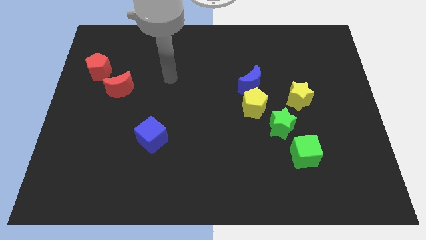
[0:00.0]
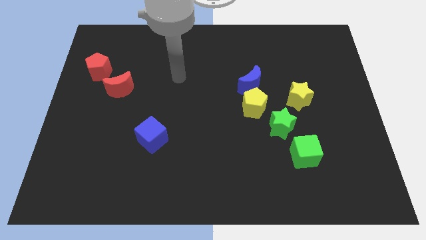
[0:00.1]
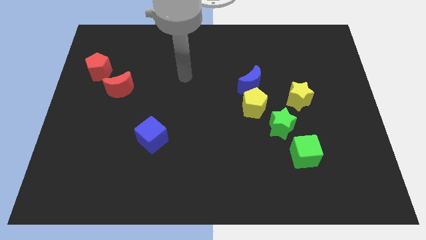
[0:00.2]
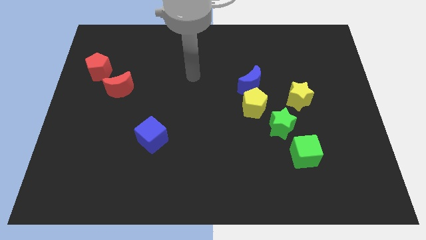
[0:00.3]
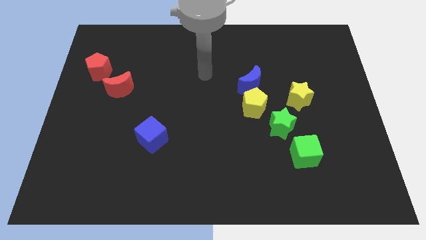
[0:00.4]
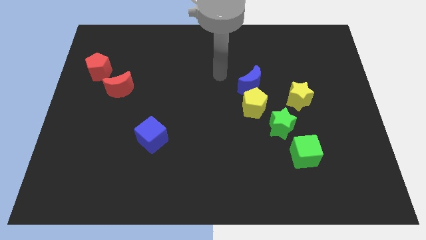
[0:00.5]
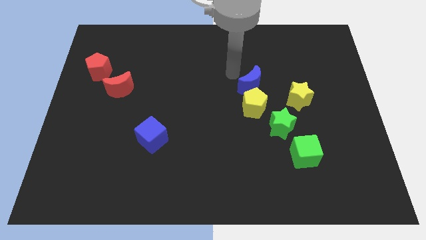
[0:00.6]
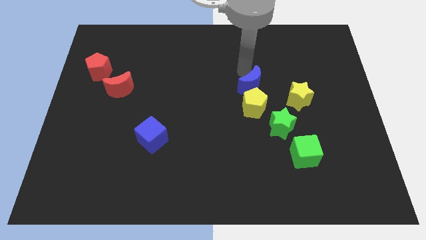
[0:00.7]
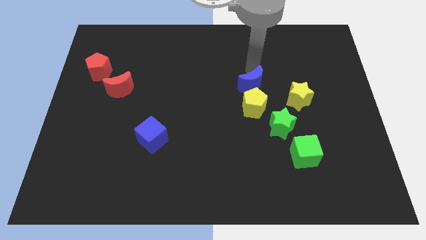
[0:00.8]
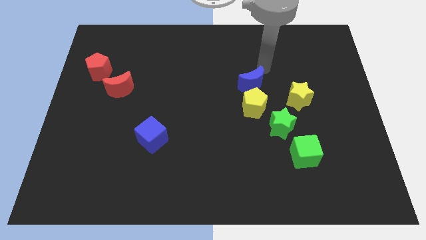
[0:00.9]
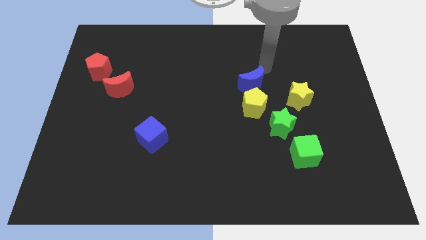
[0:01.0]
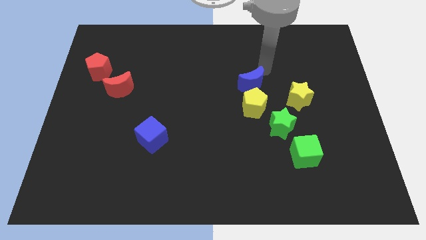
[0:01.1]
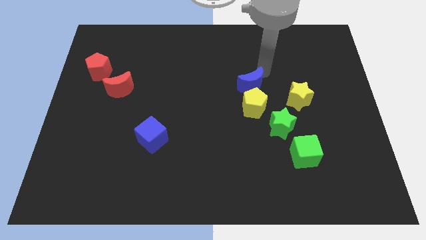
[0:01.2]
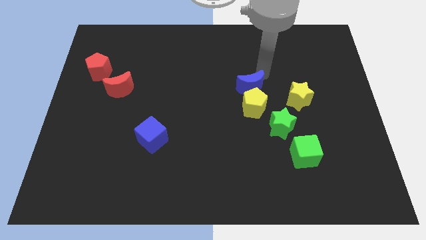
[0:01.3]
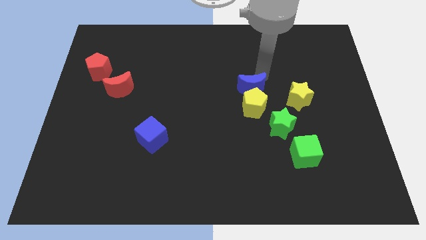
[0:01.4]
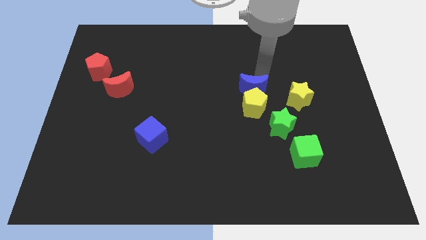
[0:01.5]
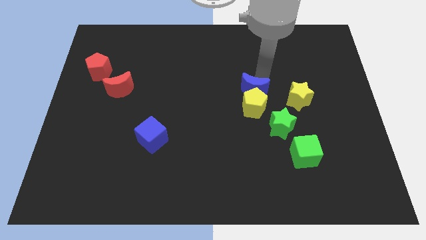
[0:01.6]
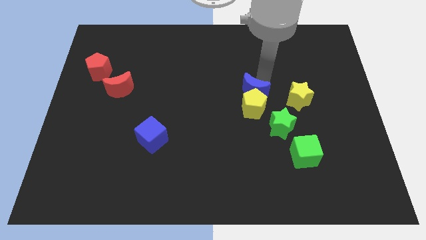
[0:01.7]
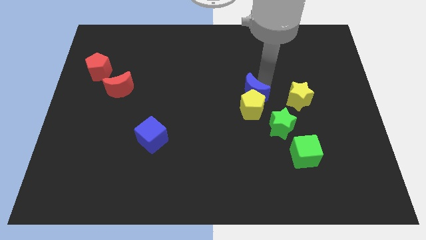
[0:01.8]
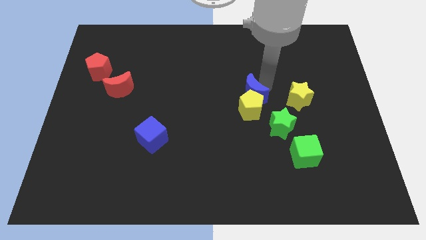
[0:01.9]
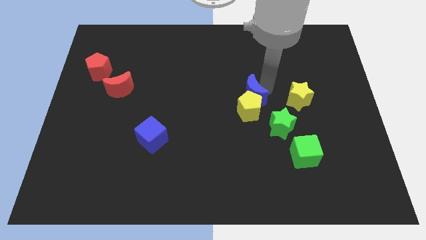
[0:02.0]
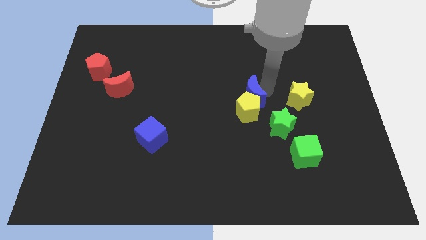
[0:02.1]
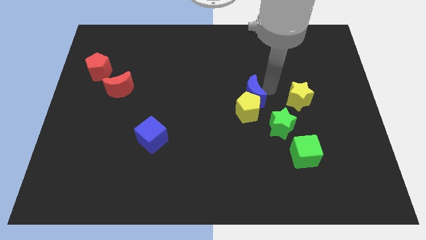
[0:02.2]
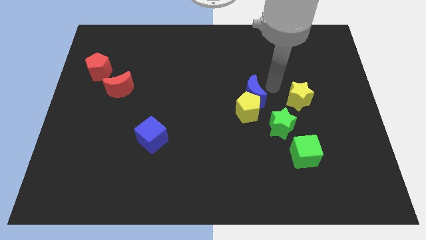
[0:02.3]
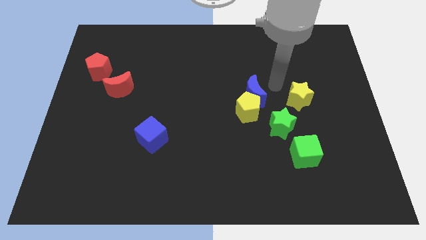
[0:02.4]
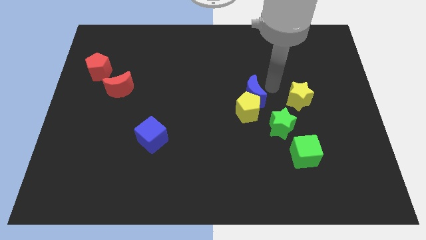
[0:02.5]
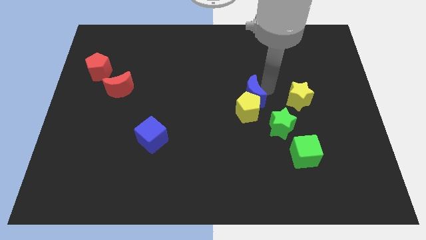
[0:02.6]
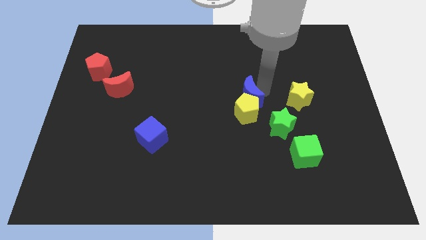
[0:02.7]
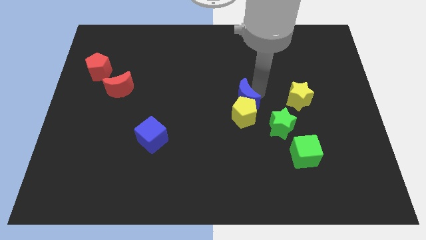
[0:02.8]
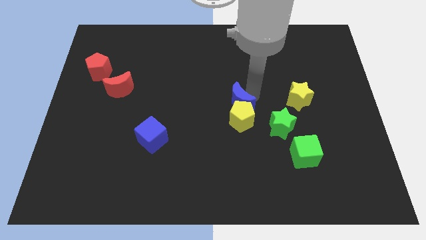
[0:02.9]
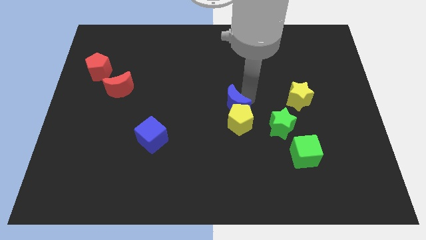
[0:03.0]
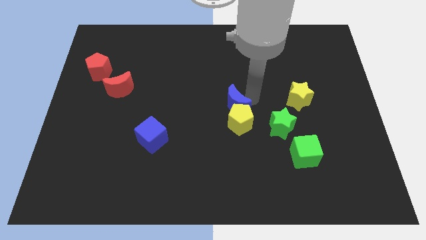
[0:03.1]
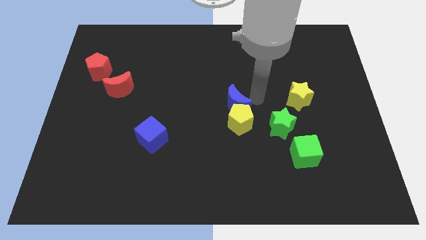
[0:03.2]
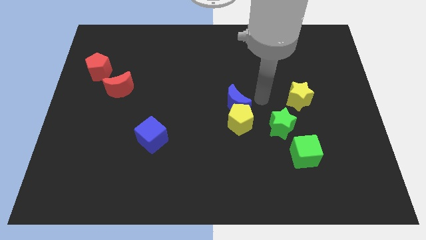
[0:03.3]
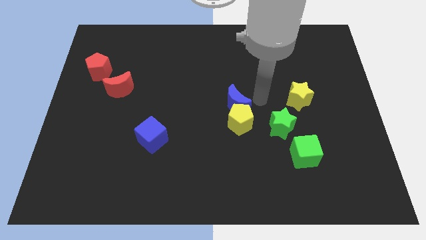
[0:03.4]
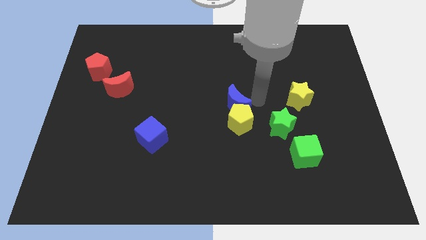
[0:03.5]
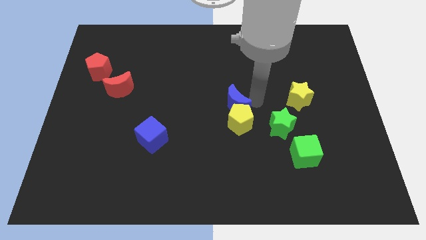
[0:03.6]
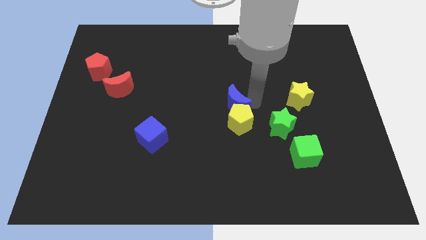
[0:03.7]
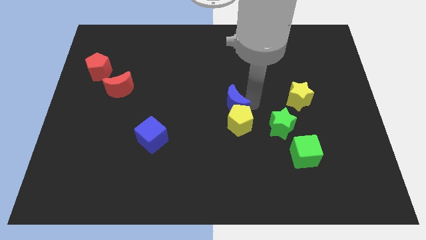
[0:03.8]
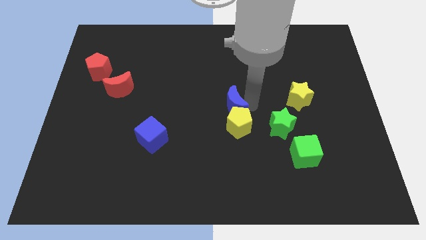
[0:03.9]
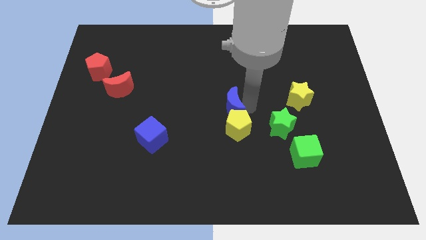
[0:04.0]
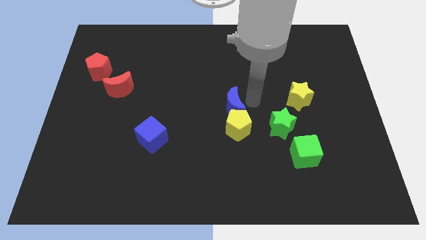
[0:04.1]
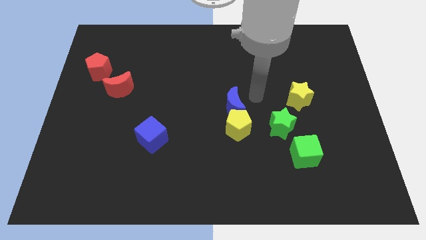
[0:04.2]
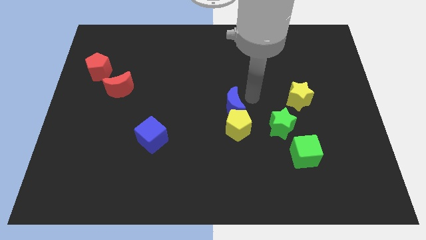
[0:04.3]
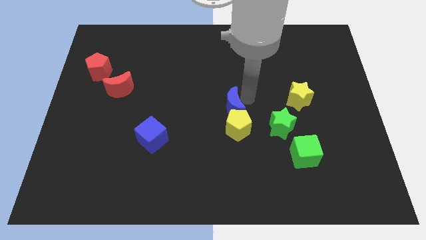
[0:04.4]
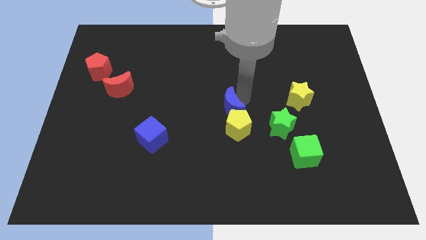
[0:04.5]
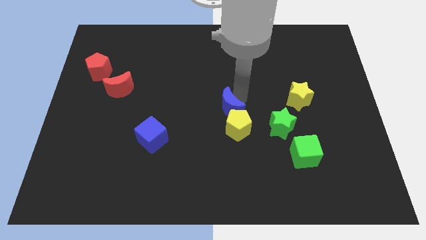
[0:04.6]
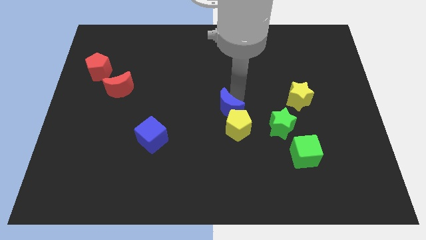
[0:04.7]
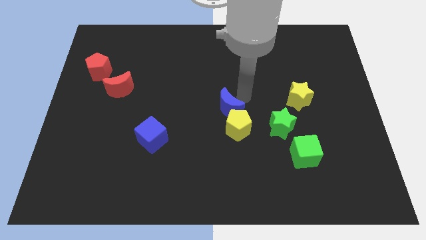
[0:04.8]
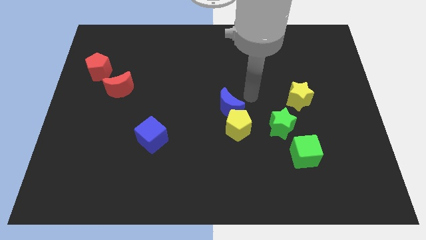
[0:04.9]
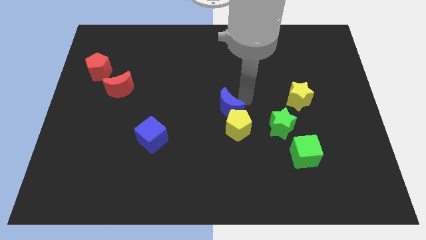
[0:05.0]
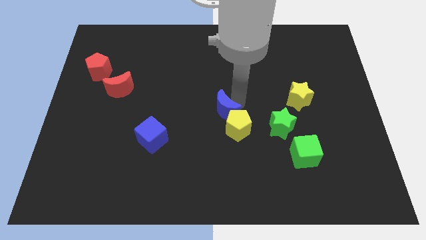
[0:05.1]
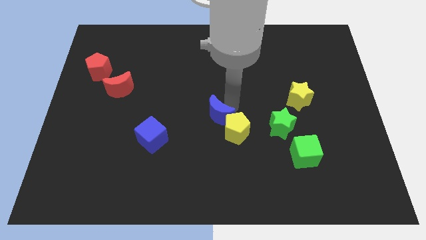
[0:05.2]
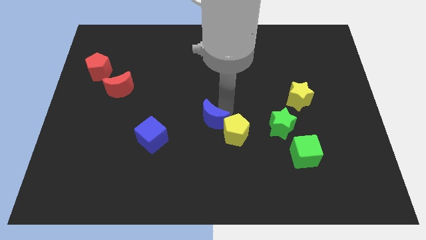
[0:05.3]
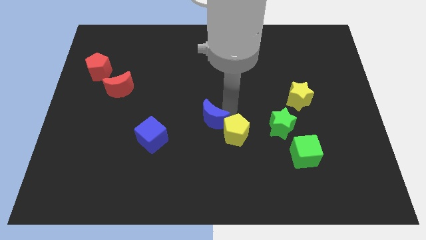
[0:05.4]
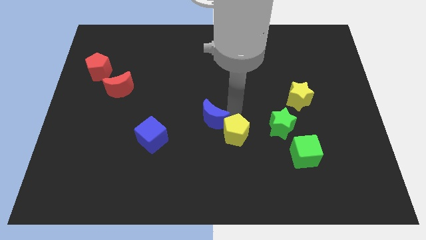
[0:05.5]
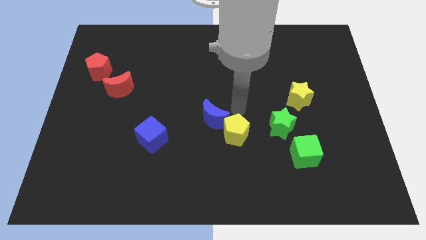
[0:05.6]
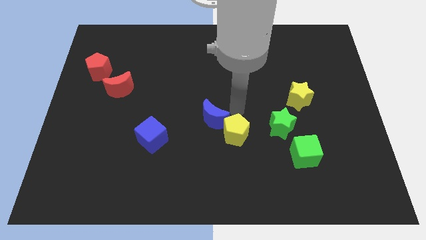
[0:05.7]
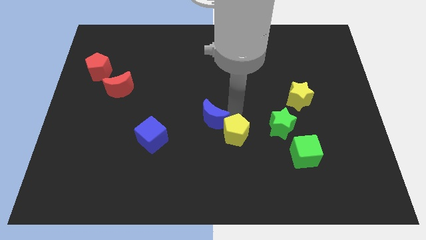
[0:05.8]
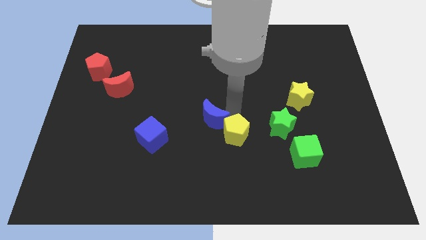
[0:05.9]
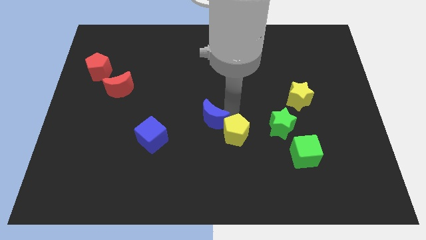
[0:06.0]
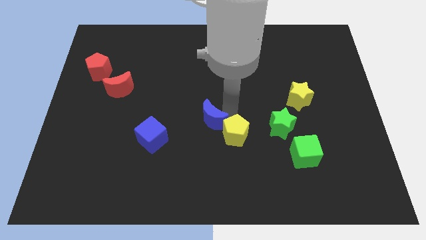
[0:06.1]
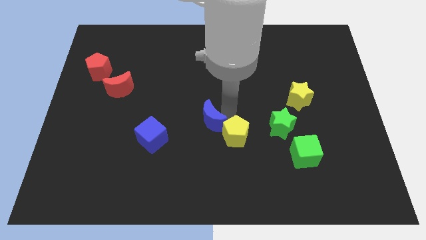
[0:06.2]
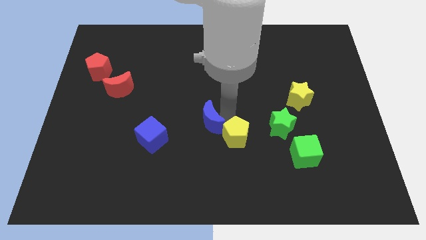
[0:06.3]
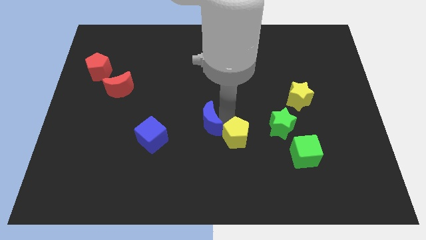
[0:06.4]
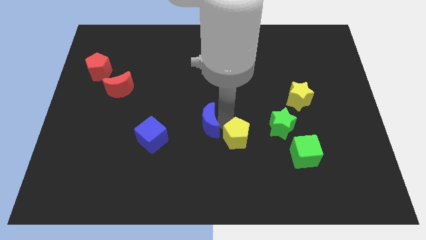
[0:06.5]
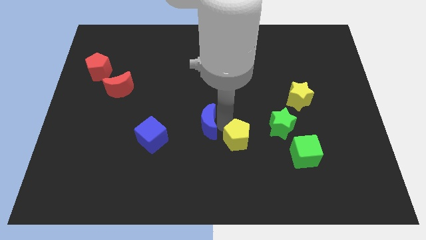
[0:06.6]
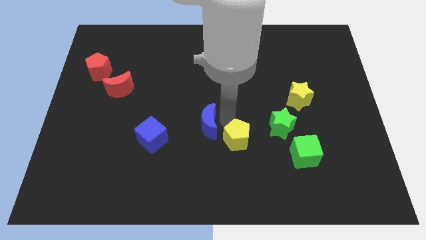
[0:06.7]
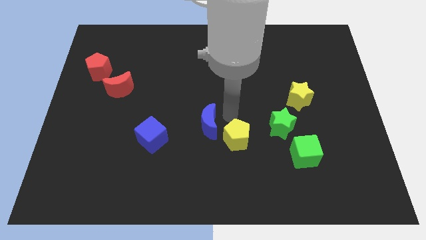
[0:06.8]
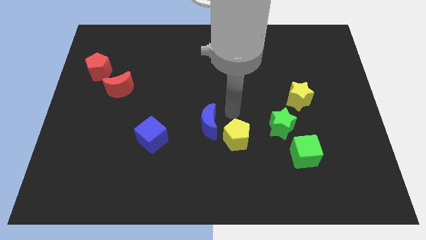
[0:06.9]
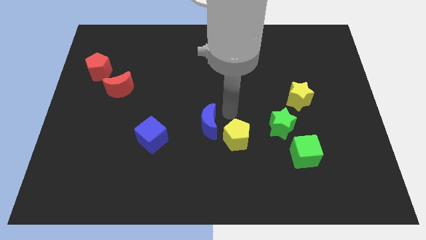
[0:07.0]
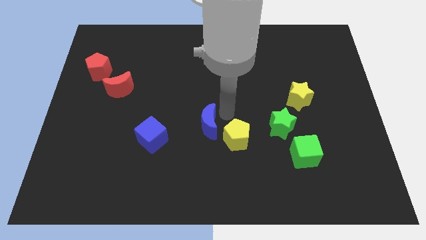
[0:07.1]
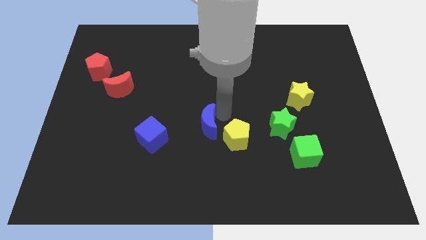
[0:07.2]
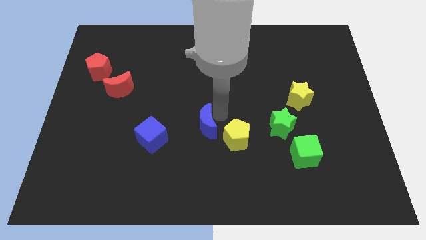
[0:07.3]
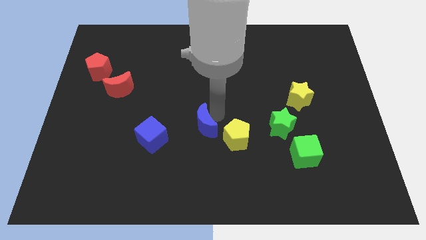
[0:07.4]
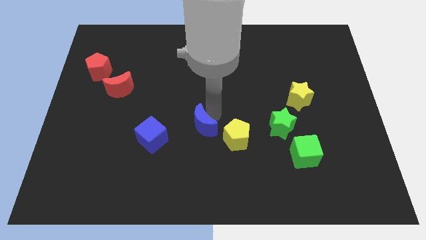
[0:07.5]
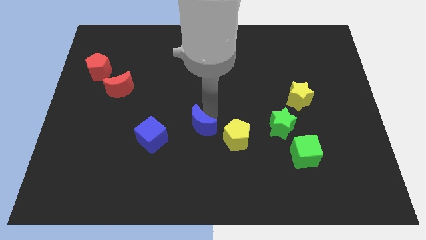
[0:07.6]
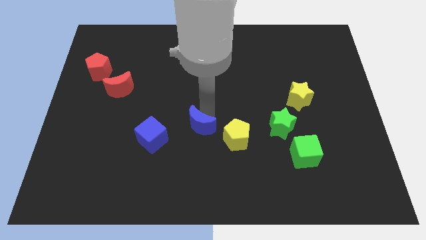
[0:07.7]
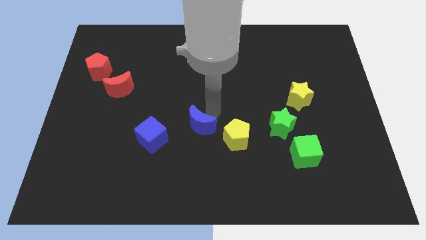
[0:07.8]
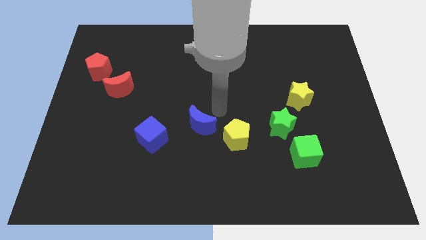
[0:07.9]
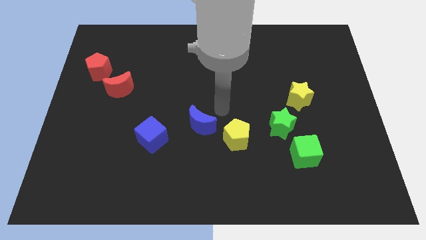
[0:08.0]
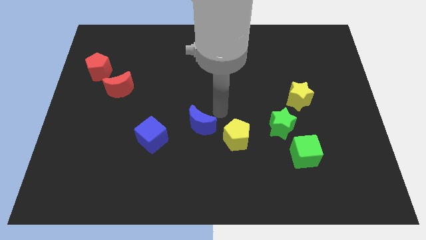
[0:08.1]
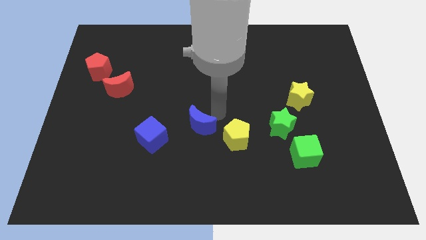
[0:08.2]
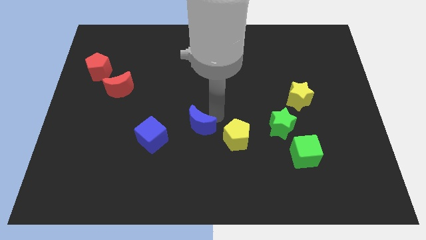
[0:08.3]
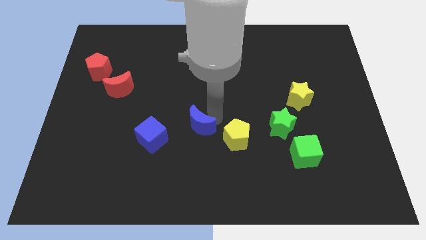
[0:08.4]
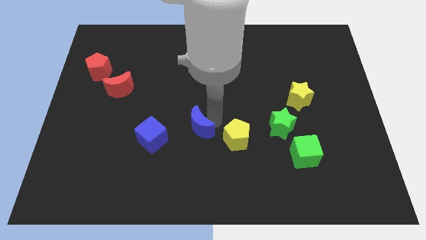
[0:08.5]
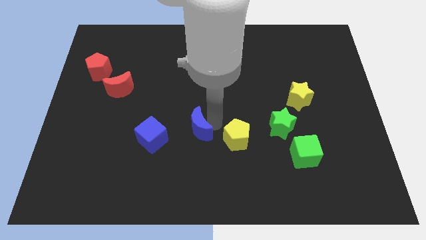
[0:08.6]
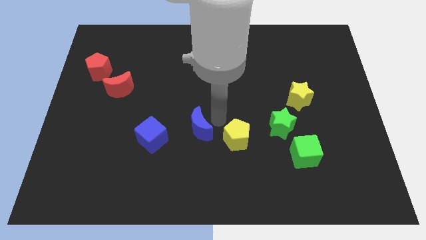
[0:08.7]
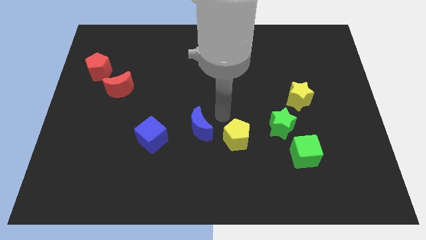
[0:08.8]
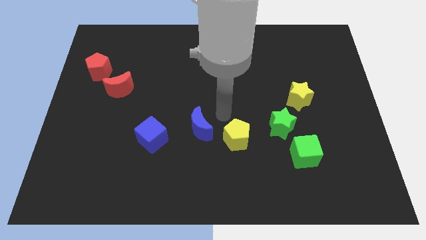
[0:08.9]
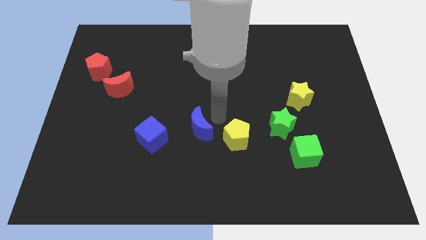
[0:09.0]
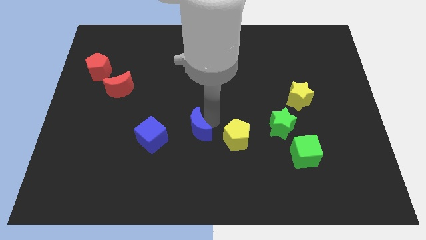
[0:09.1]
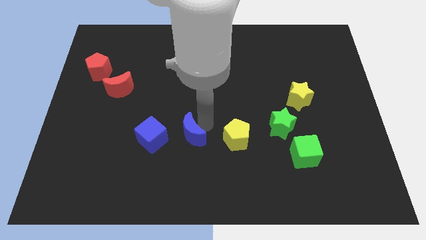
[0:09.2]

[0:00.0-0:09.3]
slide the blue moon down and then to the left
